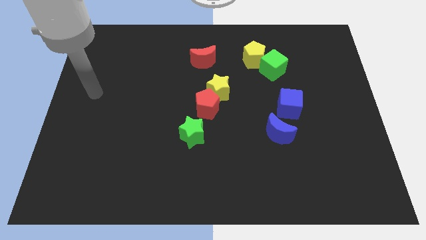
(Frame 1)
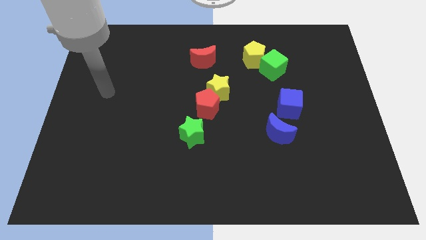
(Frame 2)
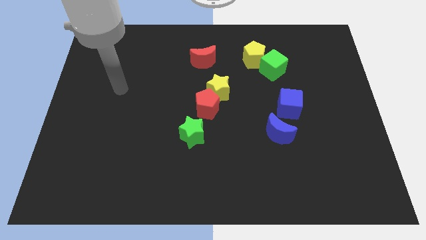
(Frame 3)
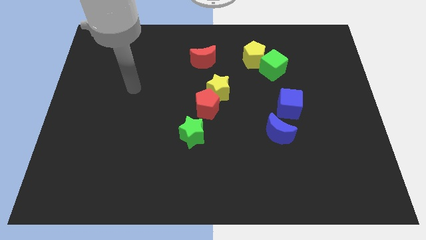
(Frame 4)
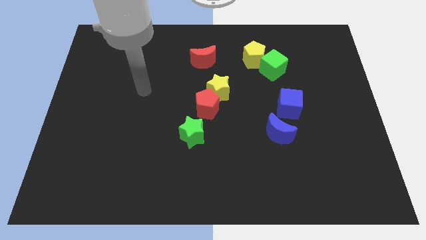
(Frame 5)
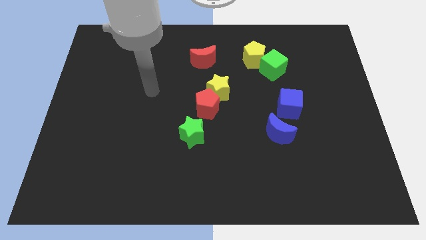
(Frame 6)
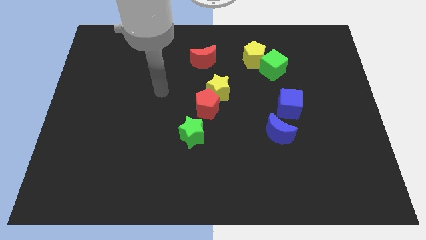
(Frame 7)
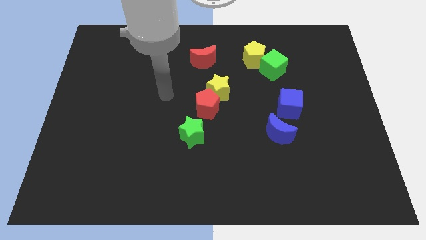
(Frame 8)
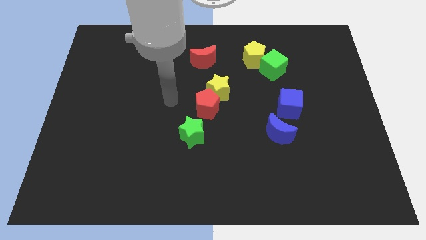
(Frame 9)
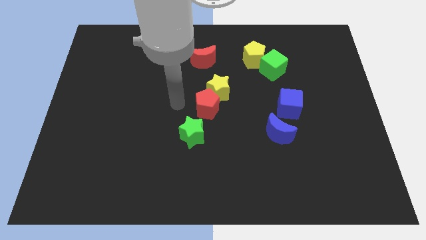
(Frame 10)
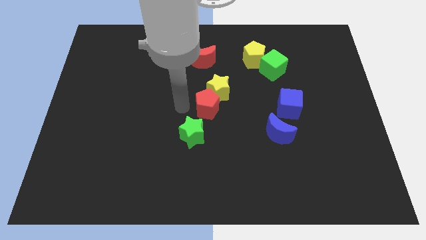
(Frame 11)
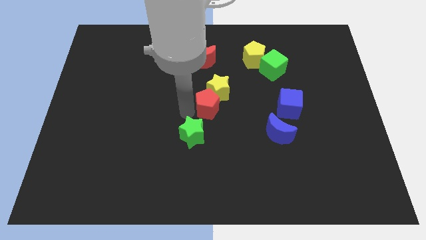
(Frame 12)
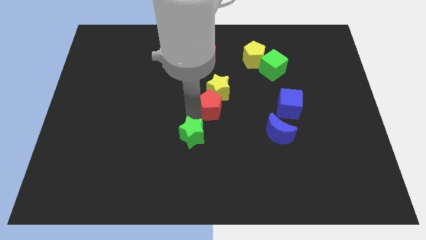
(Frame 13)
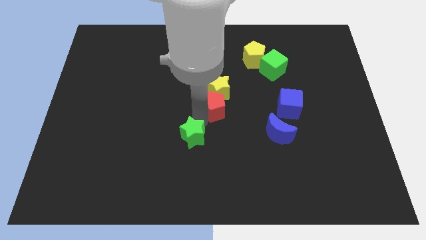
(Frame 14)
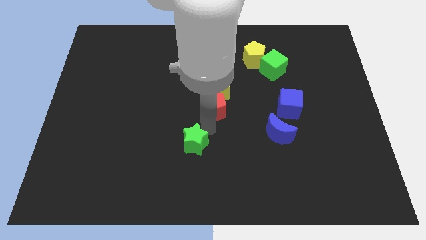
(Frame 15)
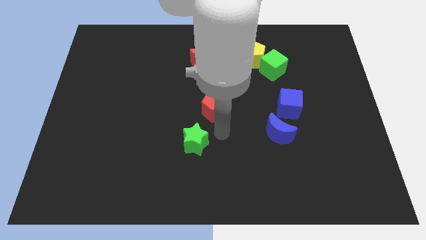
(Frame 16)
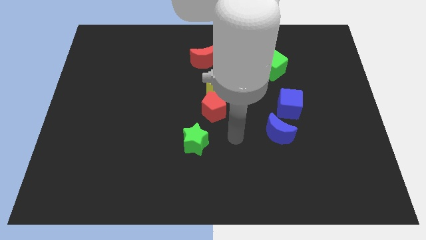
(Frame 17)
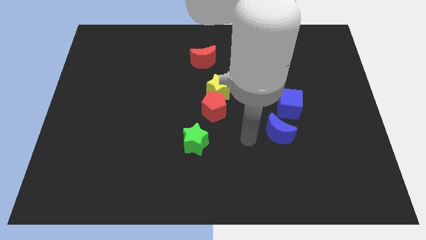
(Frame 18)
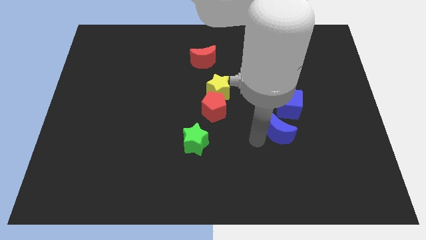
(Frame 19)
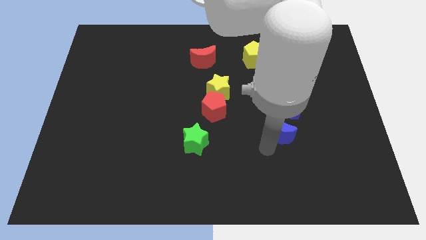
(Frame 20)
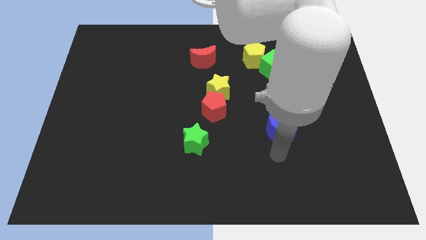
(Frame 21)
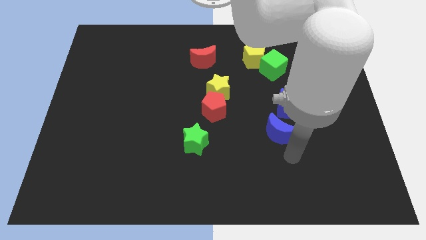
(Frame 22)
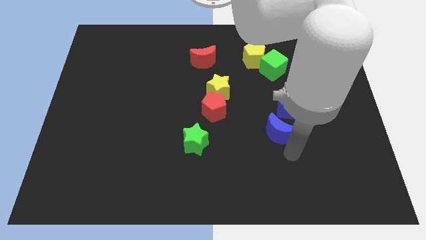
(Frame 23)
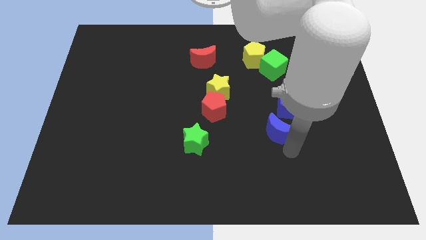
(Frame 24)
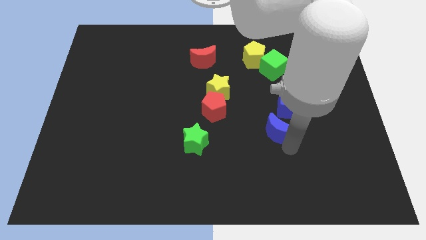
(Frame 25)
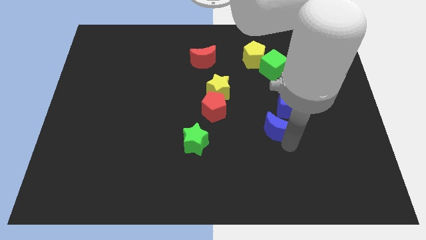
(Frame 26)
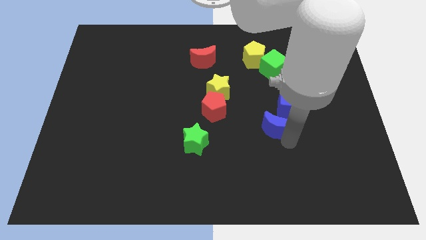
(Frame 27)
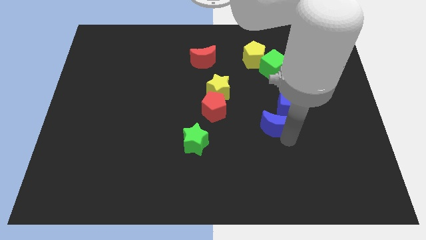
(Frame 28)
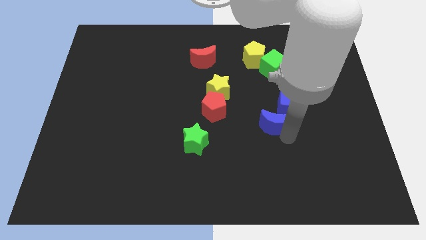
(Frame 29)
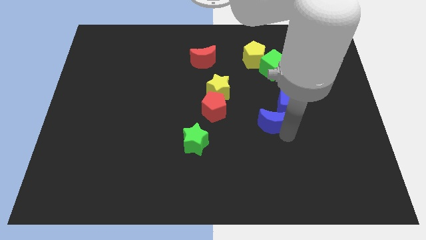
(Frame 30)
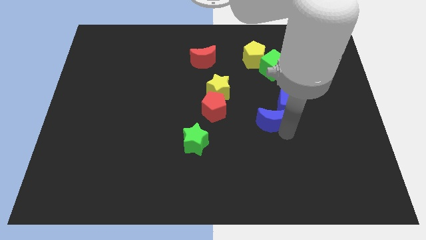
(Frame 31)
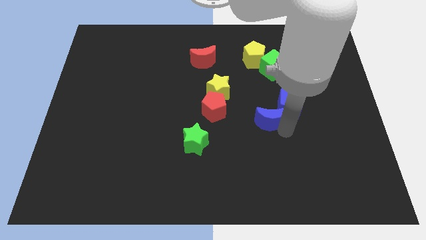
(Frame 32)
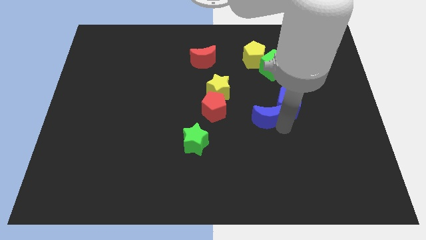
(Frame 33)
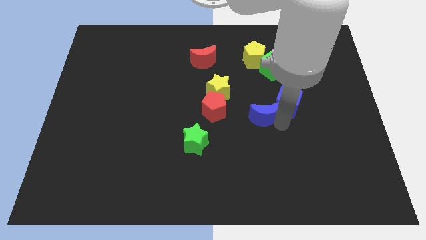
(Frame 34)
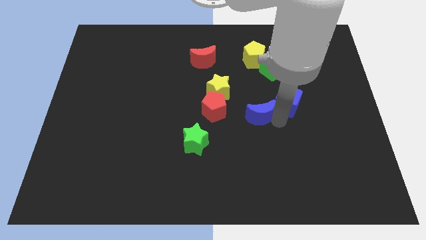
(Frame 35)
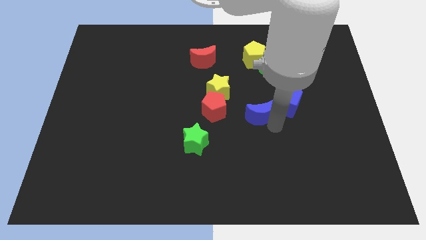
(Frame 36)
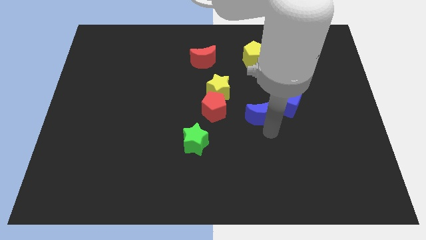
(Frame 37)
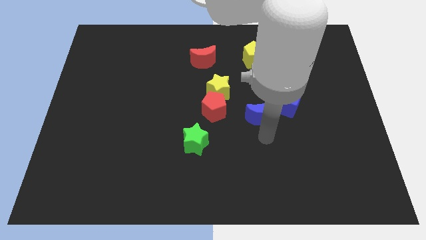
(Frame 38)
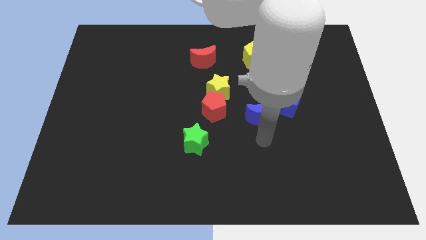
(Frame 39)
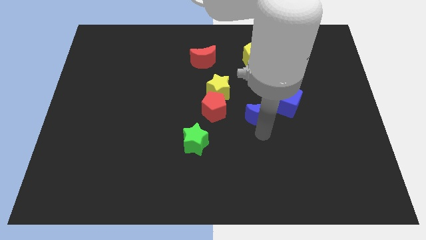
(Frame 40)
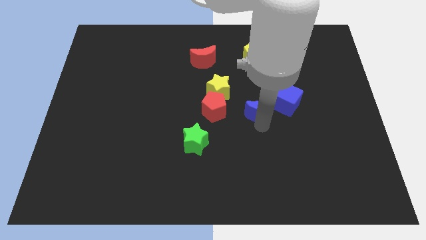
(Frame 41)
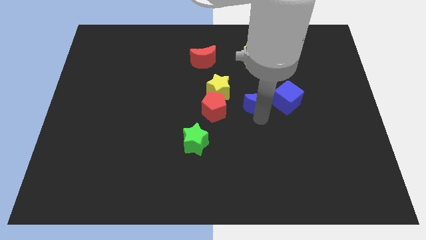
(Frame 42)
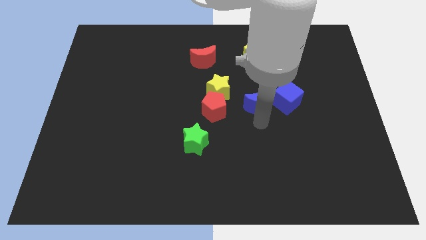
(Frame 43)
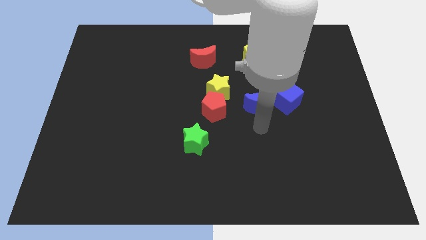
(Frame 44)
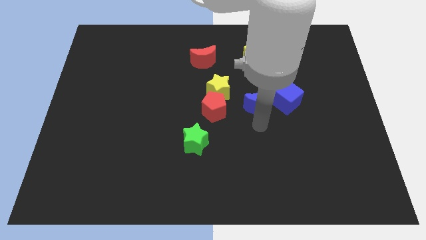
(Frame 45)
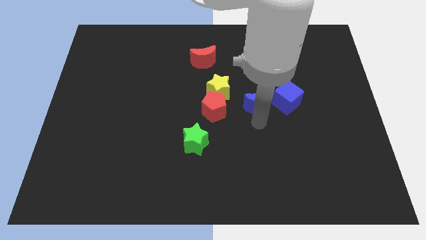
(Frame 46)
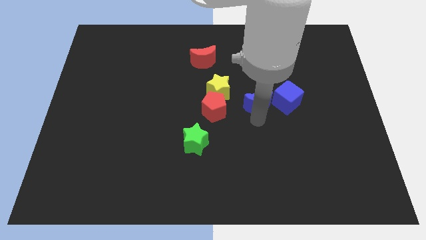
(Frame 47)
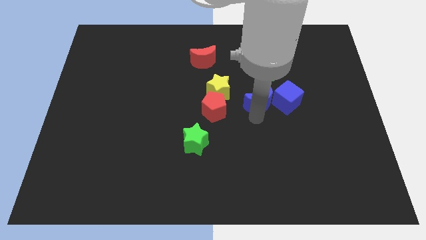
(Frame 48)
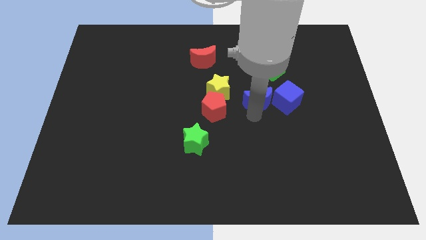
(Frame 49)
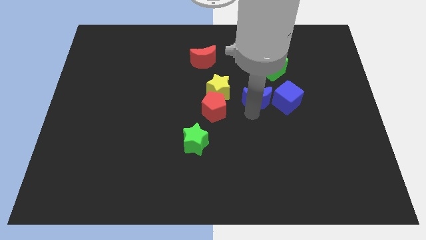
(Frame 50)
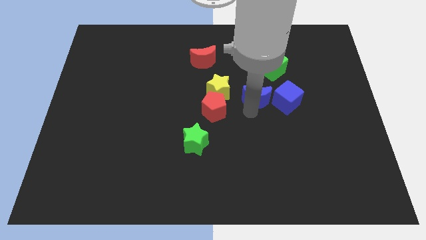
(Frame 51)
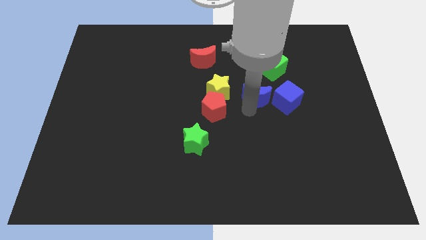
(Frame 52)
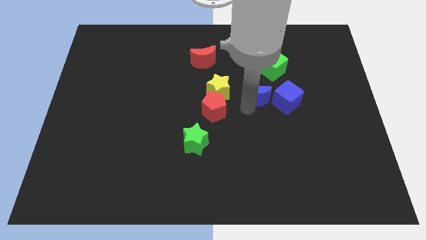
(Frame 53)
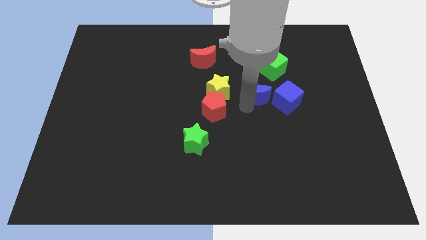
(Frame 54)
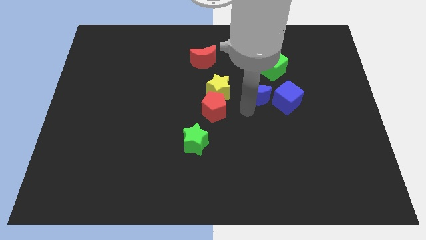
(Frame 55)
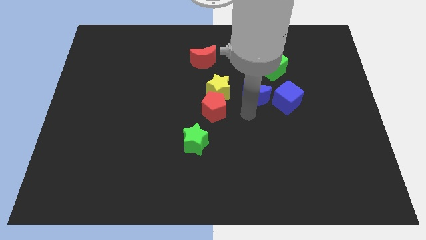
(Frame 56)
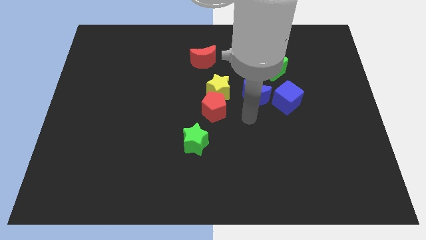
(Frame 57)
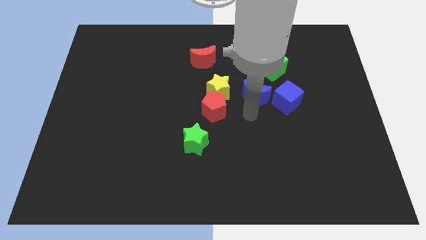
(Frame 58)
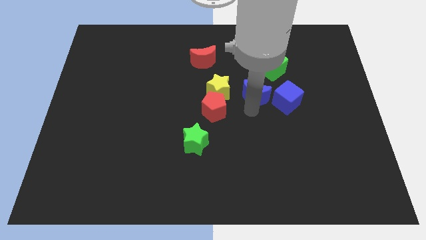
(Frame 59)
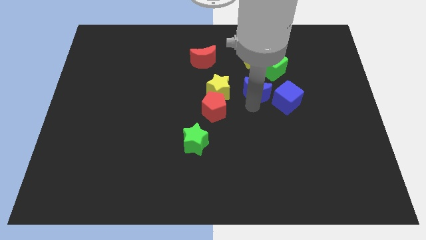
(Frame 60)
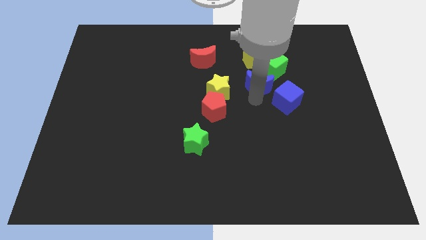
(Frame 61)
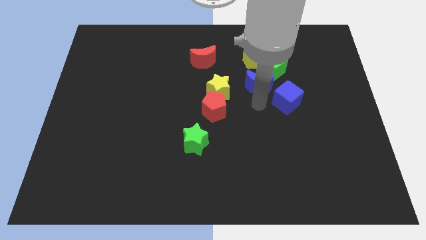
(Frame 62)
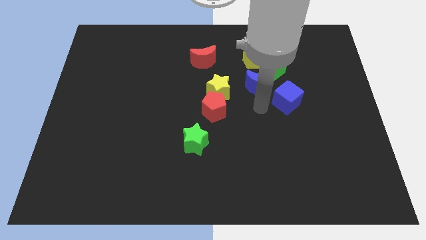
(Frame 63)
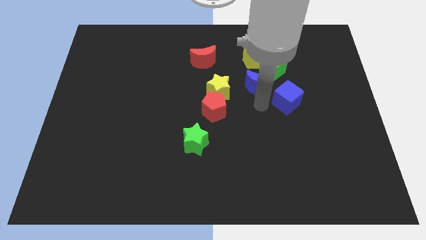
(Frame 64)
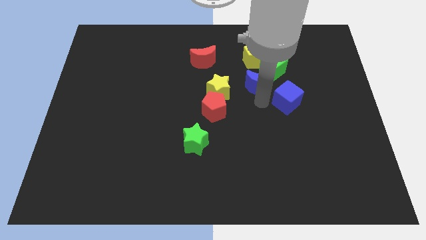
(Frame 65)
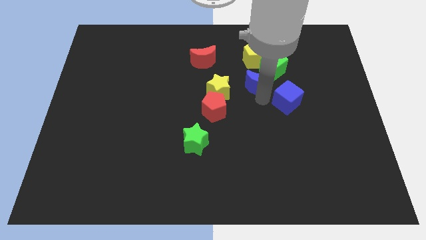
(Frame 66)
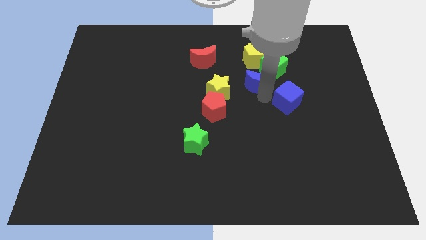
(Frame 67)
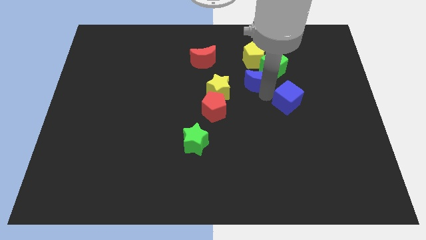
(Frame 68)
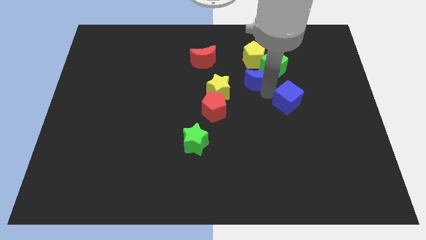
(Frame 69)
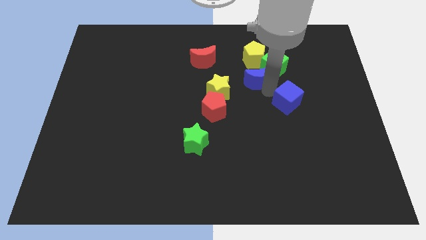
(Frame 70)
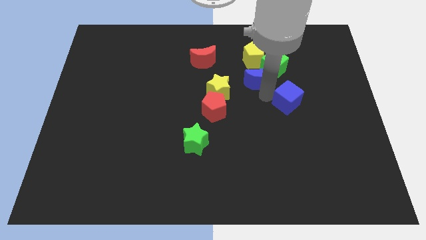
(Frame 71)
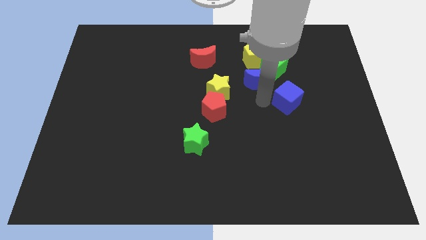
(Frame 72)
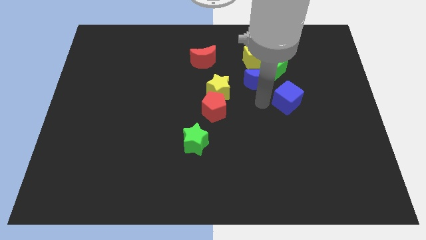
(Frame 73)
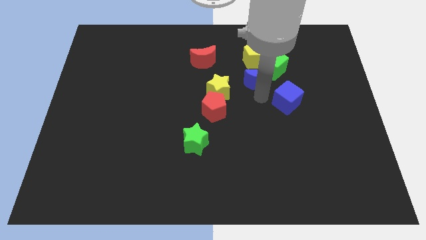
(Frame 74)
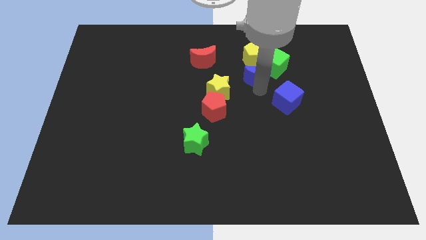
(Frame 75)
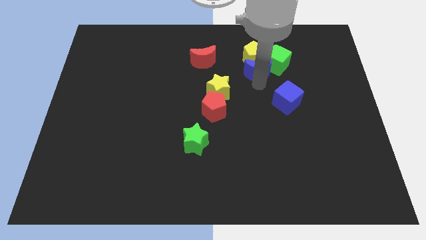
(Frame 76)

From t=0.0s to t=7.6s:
move the blue moon close to the yellow pentagon
